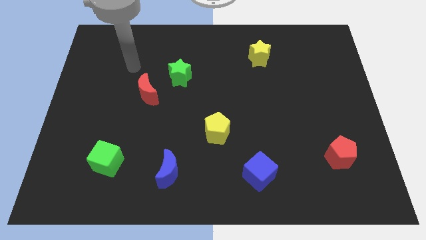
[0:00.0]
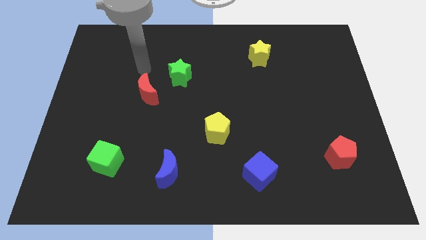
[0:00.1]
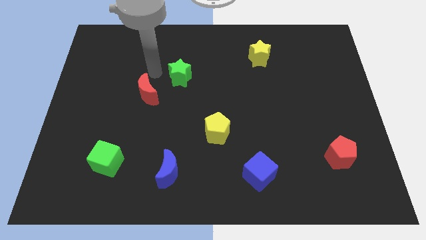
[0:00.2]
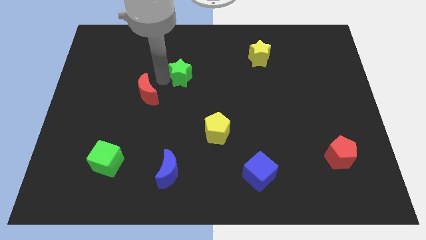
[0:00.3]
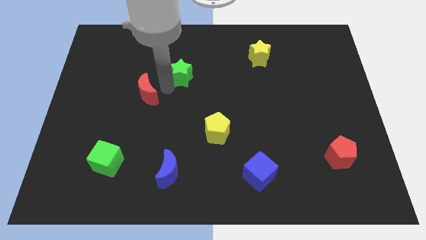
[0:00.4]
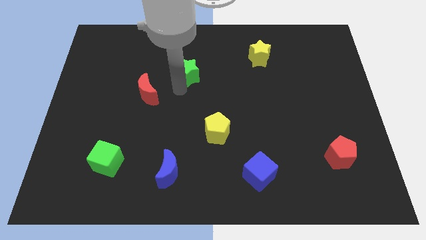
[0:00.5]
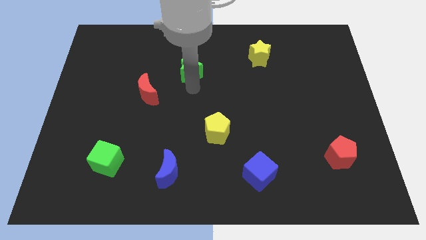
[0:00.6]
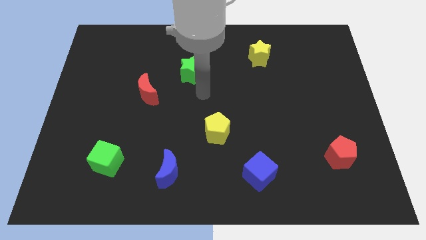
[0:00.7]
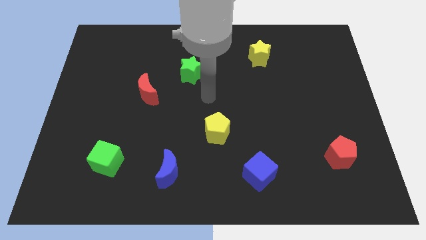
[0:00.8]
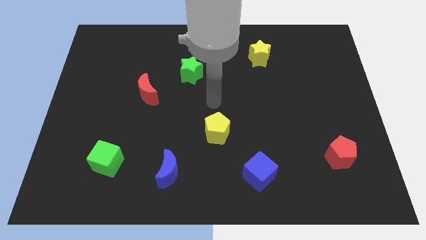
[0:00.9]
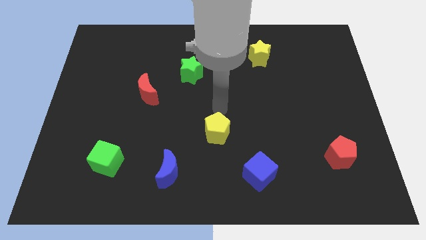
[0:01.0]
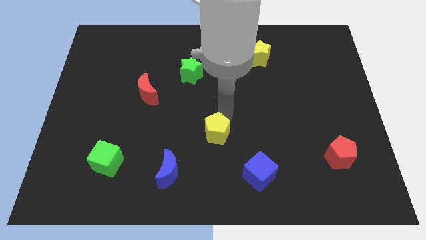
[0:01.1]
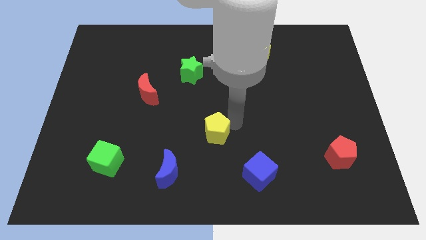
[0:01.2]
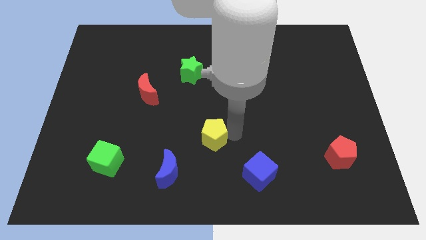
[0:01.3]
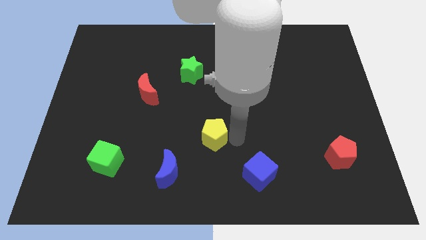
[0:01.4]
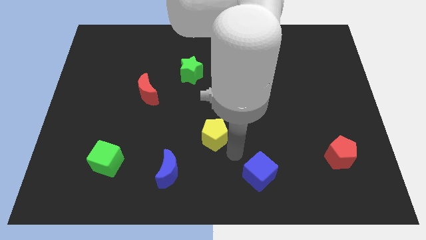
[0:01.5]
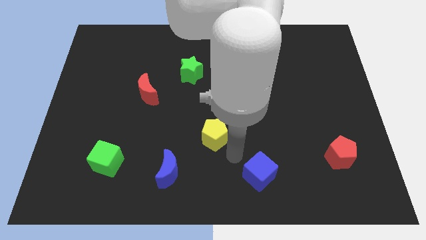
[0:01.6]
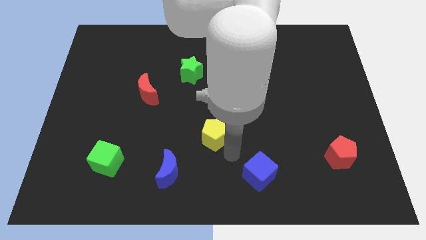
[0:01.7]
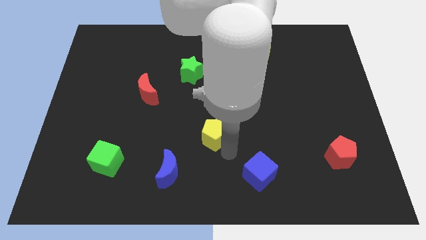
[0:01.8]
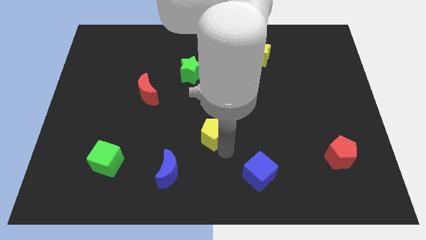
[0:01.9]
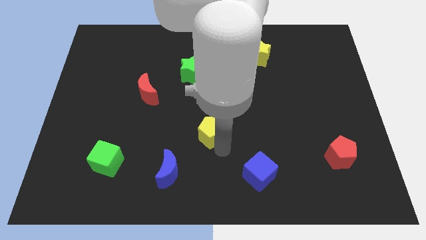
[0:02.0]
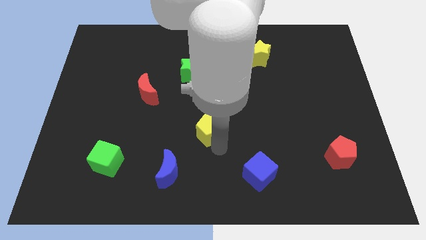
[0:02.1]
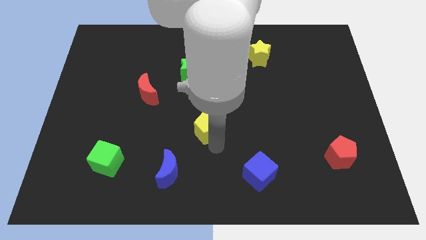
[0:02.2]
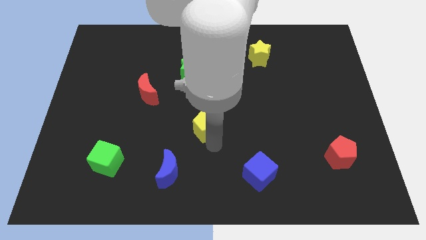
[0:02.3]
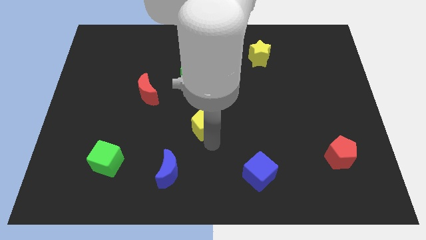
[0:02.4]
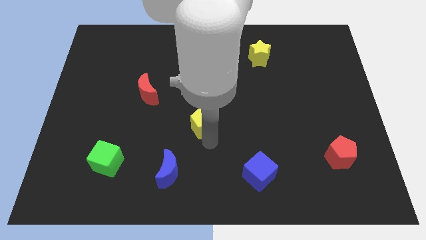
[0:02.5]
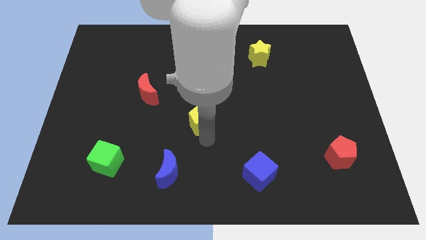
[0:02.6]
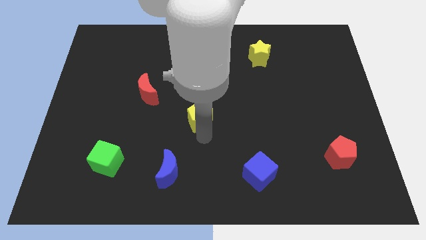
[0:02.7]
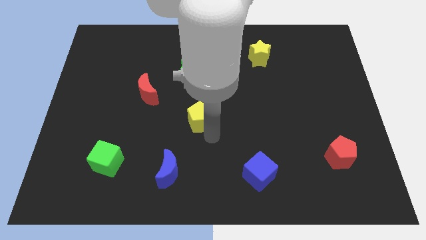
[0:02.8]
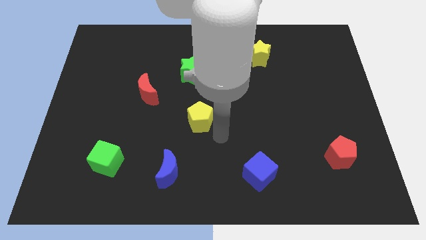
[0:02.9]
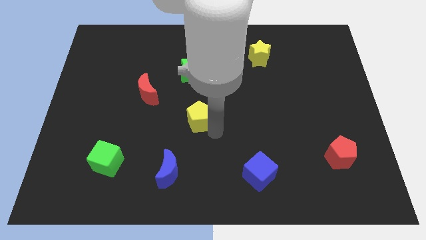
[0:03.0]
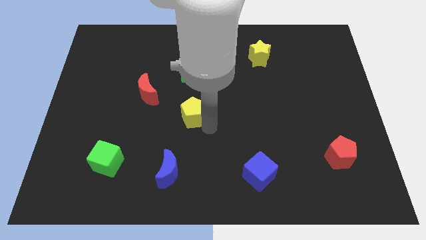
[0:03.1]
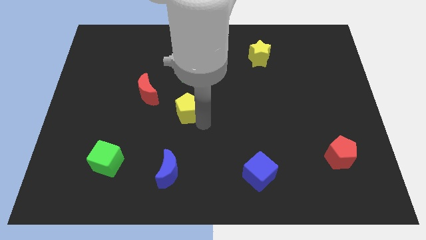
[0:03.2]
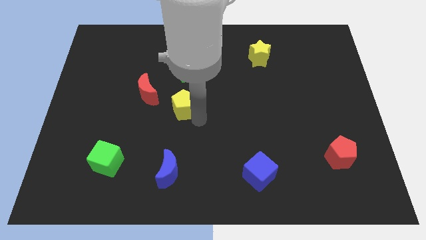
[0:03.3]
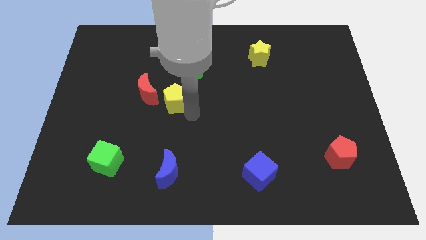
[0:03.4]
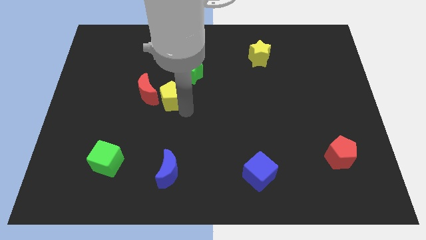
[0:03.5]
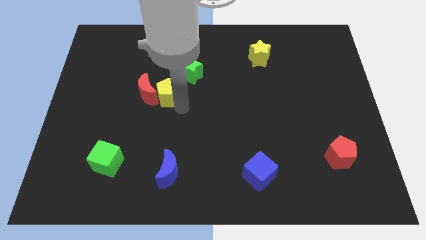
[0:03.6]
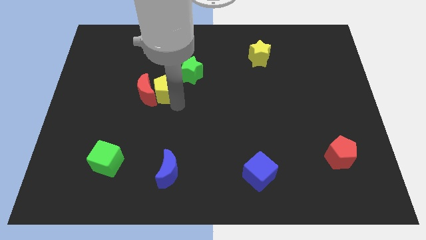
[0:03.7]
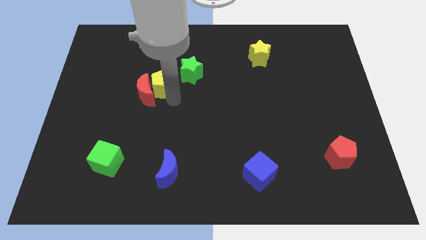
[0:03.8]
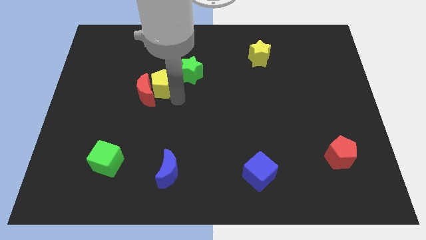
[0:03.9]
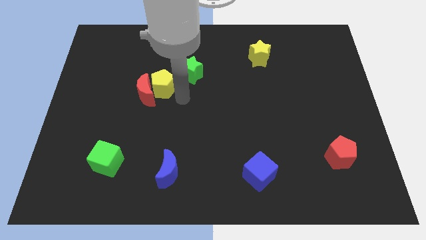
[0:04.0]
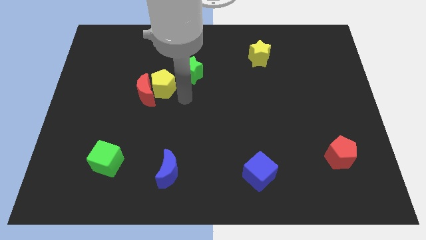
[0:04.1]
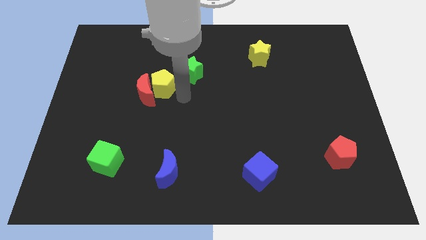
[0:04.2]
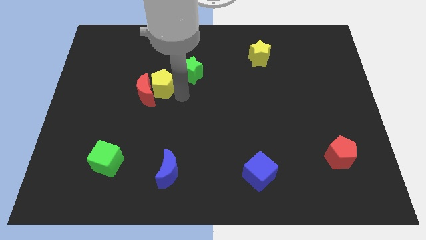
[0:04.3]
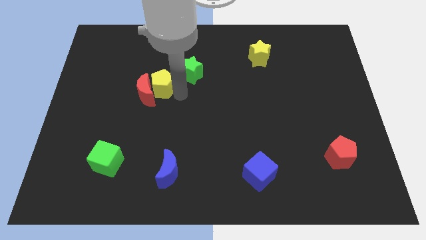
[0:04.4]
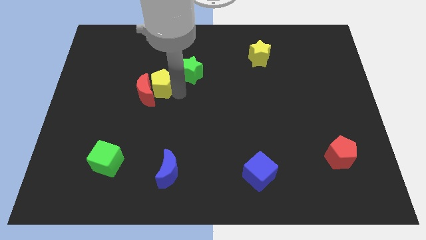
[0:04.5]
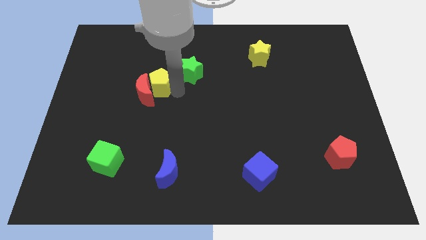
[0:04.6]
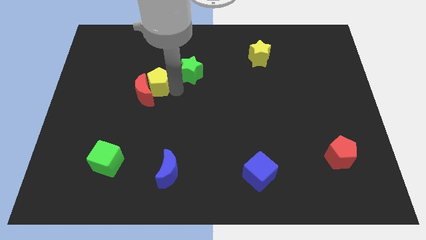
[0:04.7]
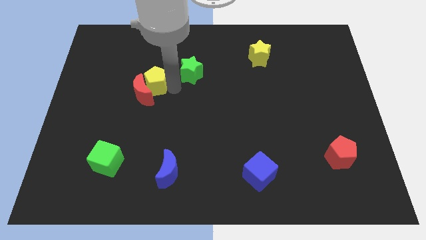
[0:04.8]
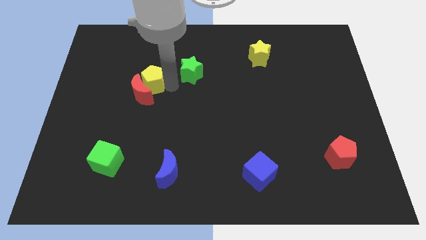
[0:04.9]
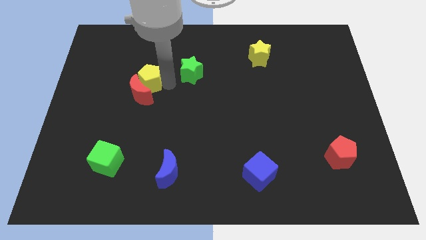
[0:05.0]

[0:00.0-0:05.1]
move the yellow pentagon to the top left of the red moon

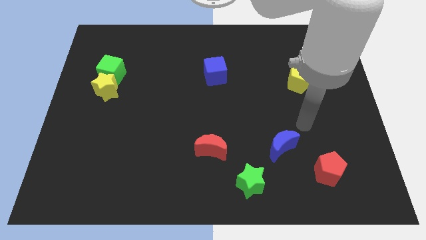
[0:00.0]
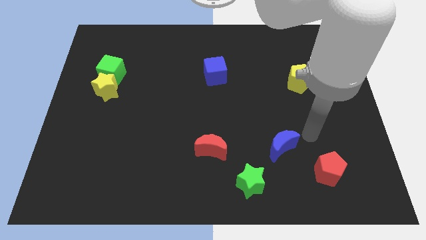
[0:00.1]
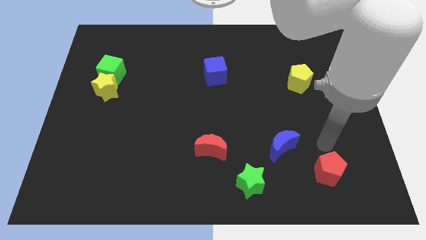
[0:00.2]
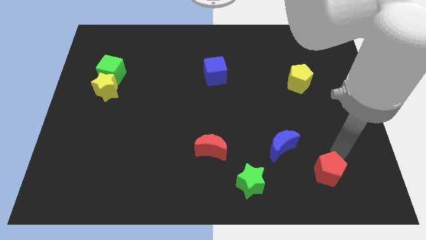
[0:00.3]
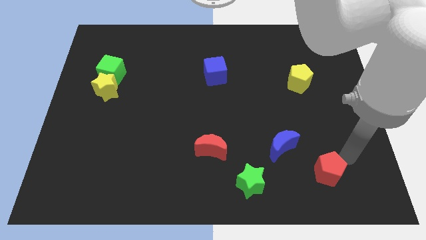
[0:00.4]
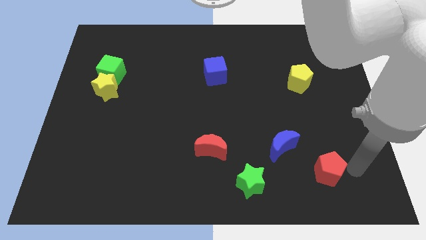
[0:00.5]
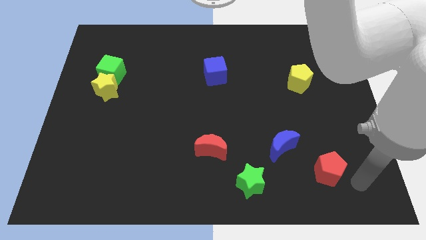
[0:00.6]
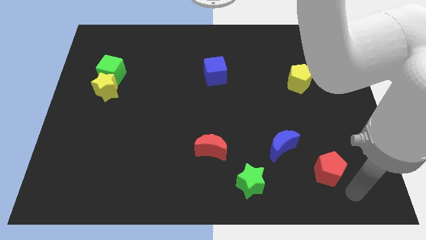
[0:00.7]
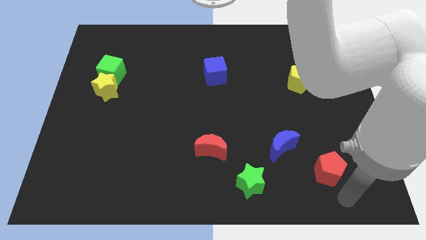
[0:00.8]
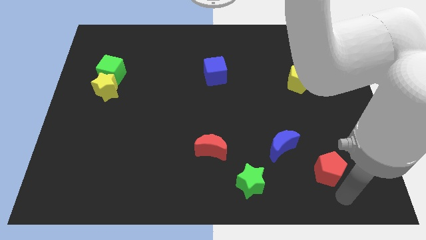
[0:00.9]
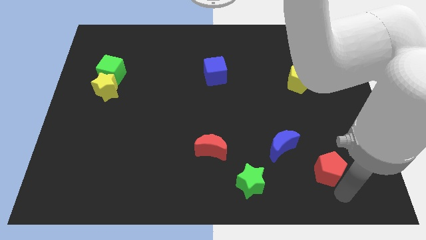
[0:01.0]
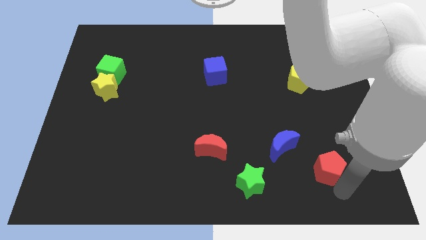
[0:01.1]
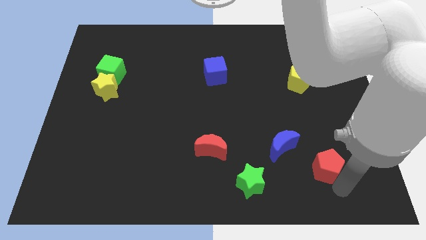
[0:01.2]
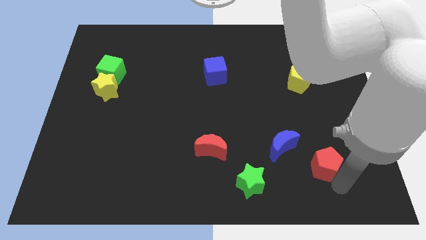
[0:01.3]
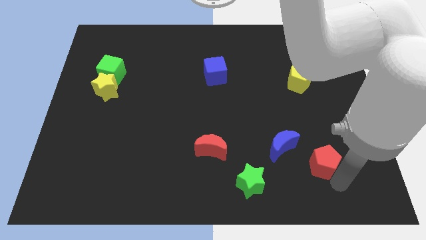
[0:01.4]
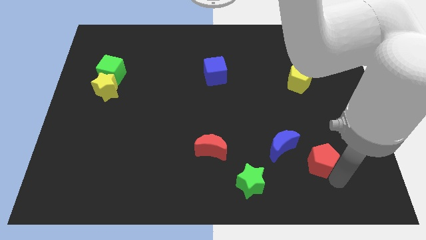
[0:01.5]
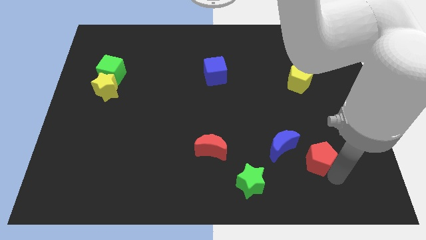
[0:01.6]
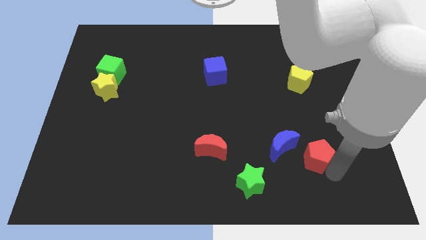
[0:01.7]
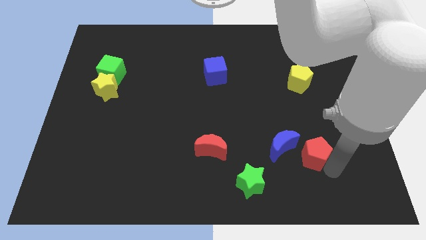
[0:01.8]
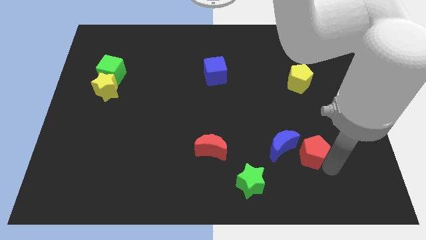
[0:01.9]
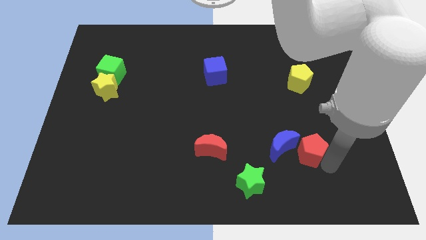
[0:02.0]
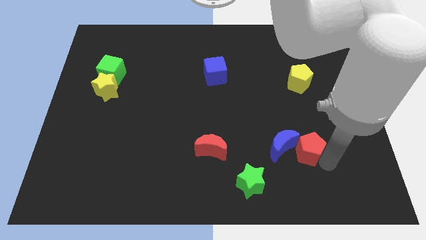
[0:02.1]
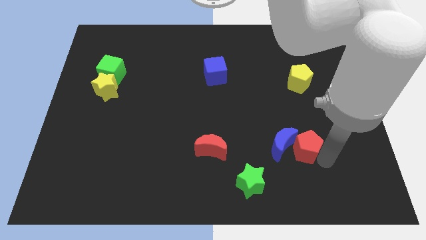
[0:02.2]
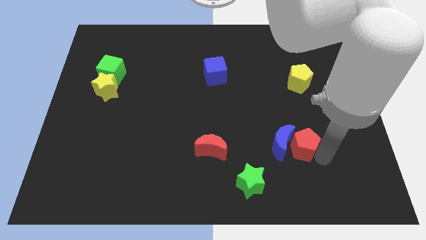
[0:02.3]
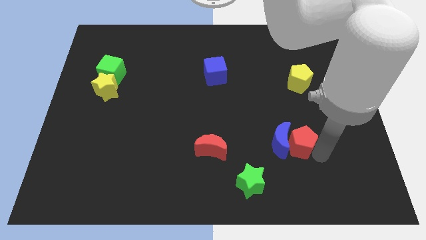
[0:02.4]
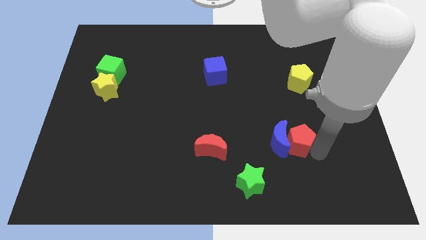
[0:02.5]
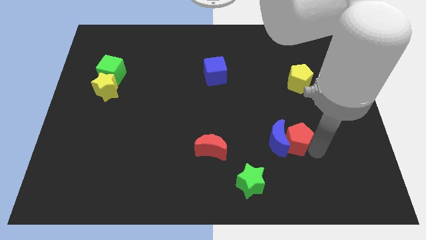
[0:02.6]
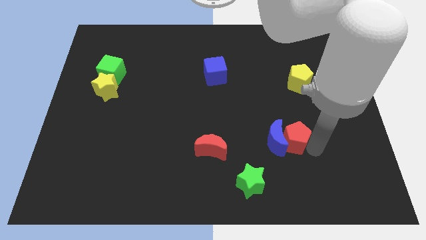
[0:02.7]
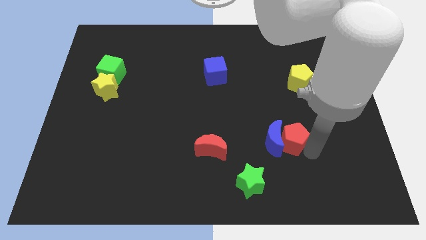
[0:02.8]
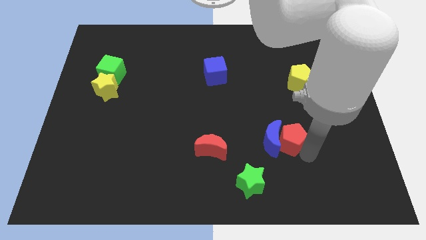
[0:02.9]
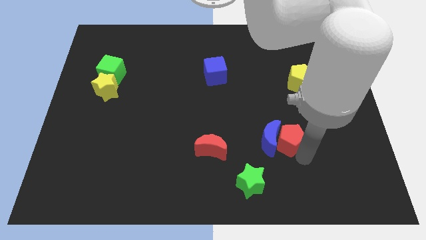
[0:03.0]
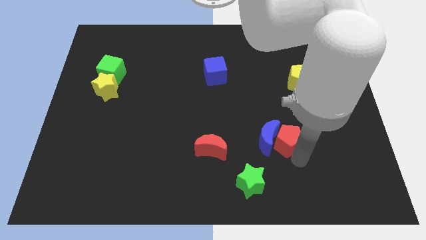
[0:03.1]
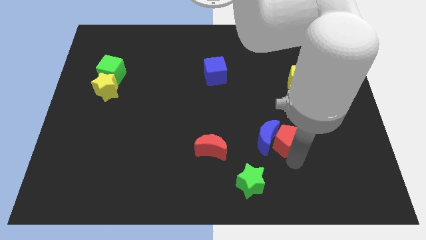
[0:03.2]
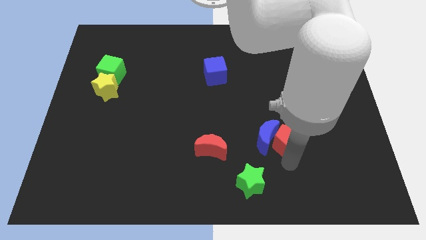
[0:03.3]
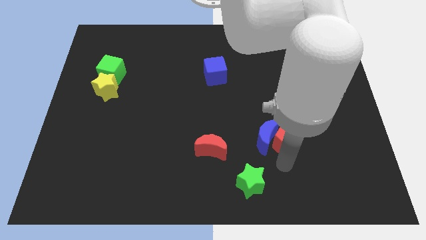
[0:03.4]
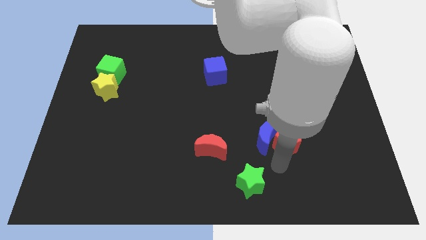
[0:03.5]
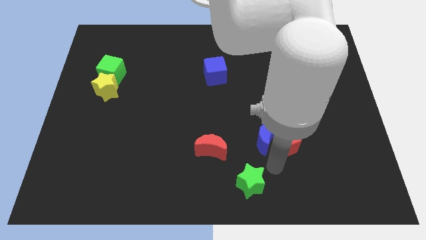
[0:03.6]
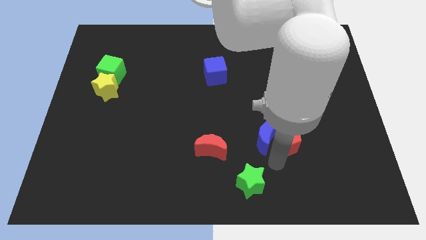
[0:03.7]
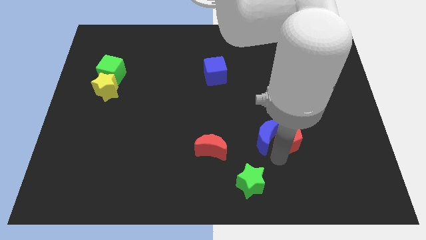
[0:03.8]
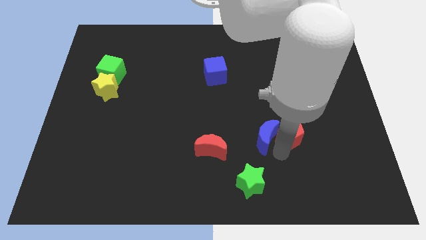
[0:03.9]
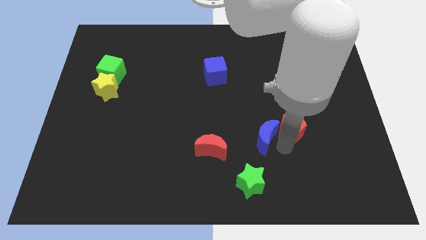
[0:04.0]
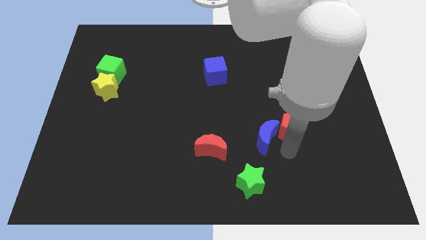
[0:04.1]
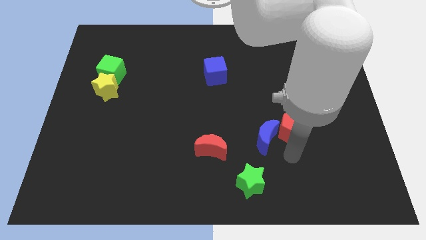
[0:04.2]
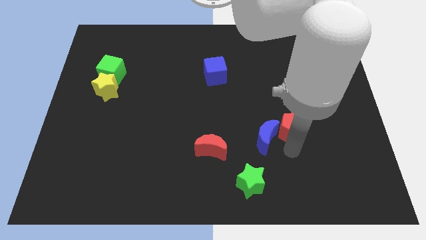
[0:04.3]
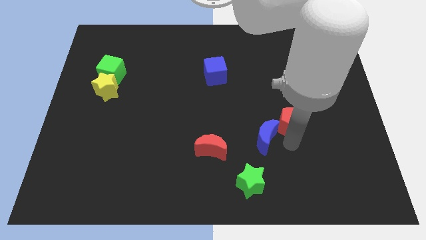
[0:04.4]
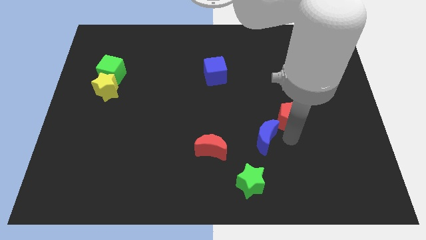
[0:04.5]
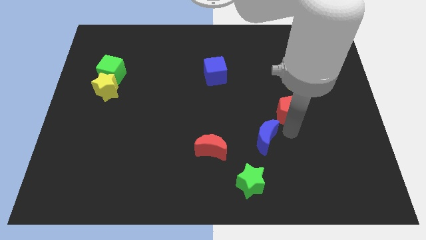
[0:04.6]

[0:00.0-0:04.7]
slide the red pentagon to the bottom left of the yellow pentagon
